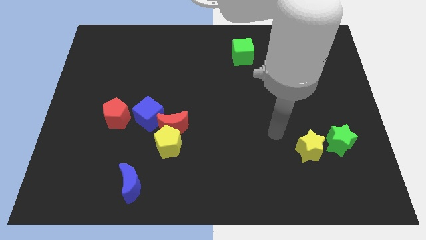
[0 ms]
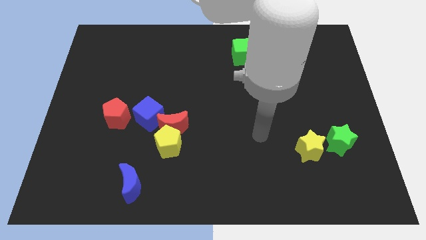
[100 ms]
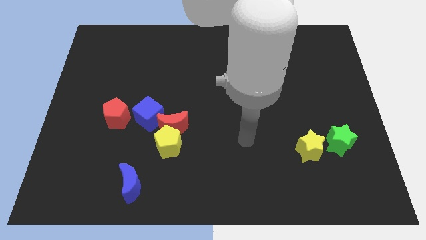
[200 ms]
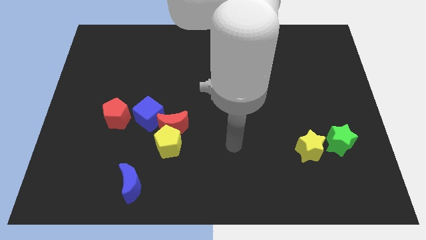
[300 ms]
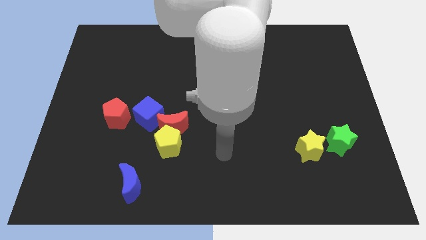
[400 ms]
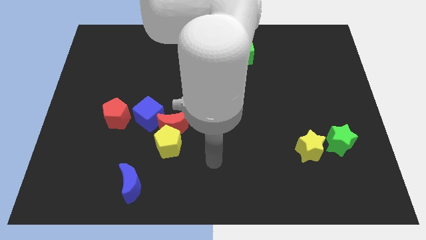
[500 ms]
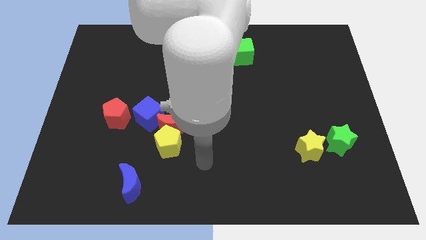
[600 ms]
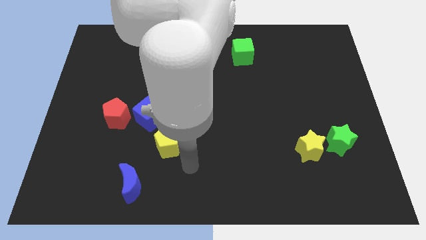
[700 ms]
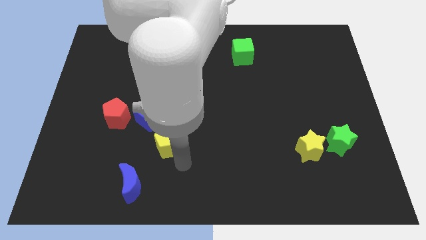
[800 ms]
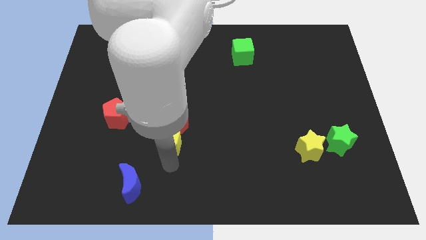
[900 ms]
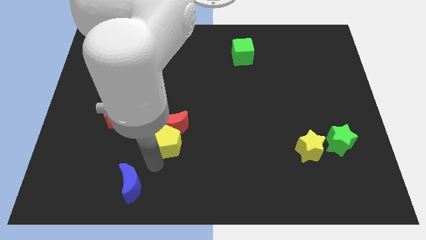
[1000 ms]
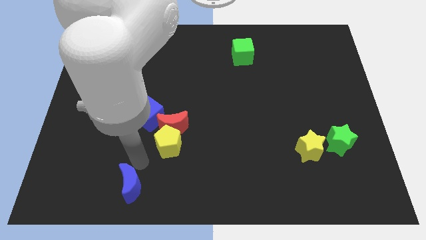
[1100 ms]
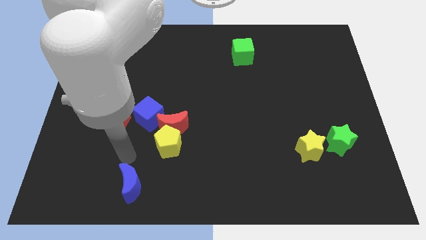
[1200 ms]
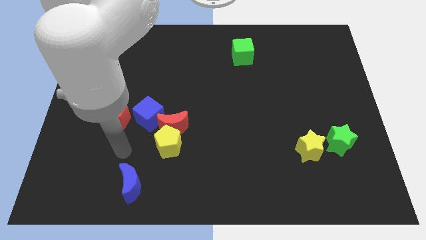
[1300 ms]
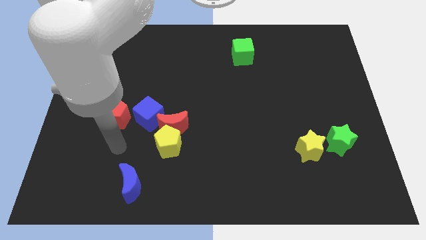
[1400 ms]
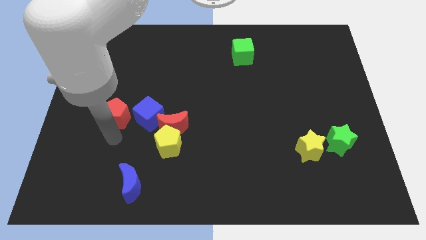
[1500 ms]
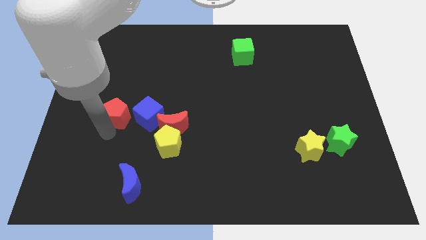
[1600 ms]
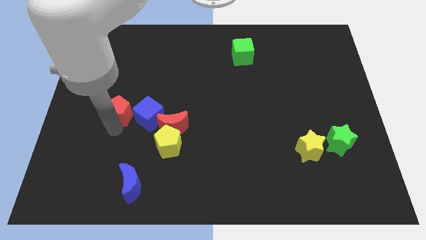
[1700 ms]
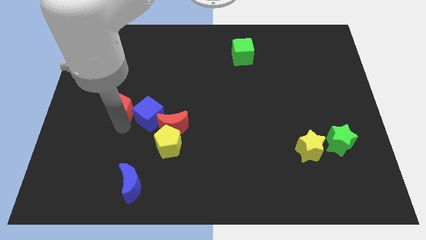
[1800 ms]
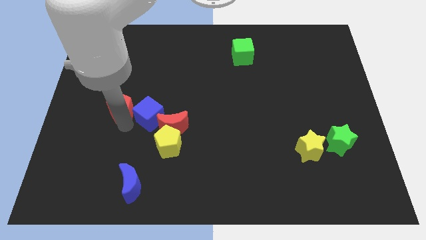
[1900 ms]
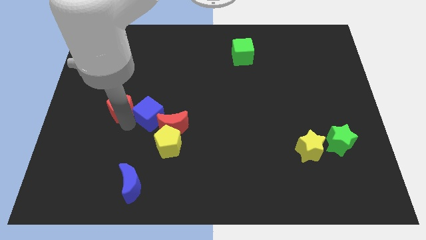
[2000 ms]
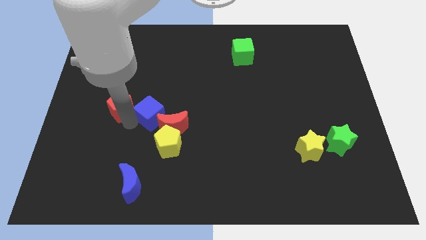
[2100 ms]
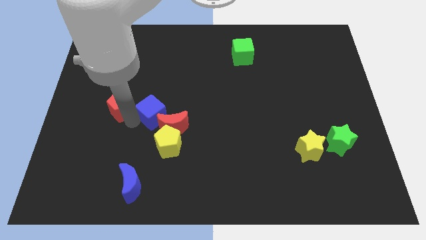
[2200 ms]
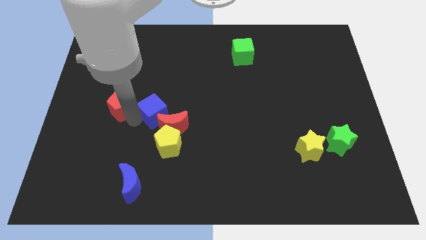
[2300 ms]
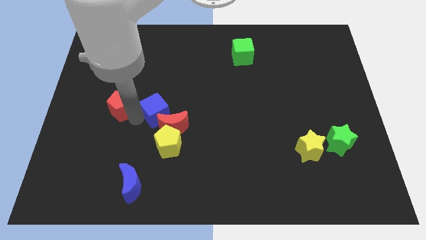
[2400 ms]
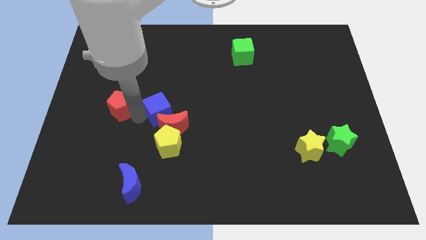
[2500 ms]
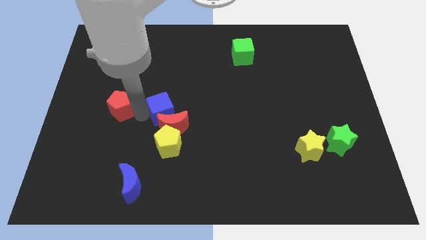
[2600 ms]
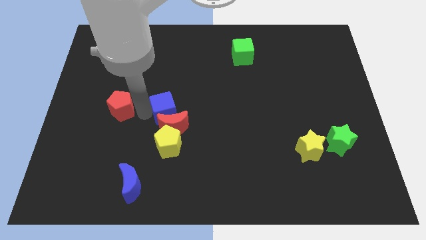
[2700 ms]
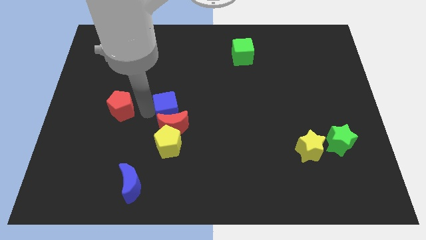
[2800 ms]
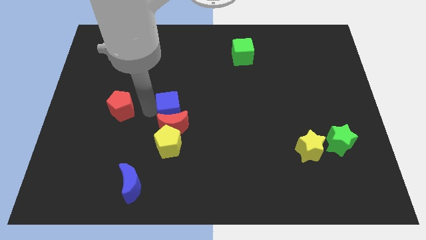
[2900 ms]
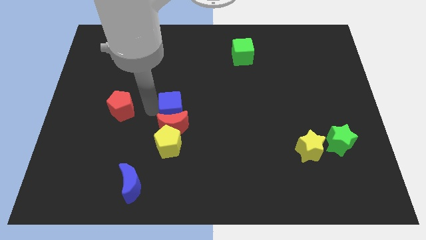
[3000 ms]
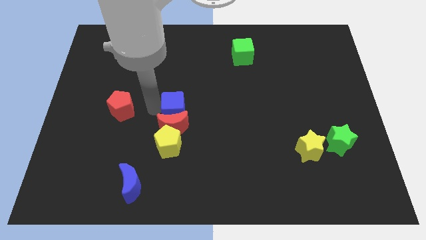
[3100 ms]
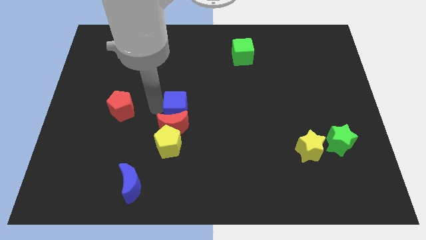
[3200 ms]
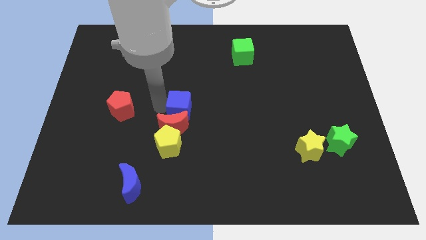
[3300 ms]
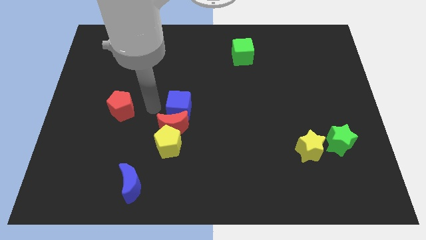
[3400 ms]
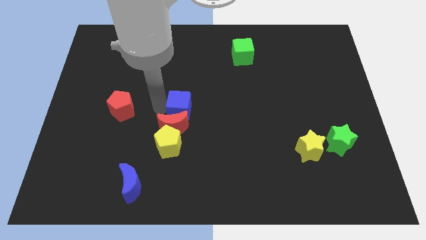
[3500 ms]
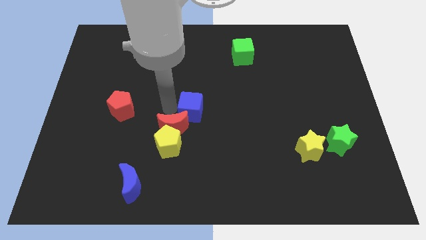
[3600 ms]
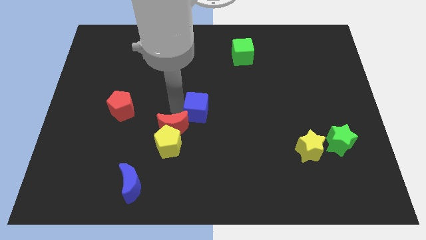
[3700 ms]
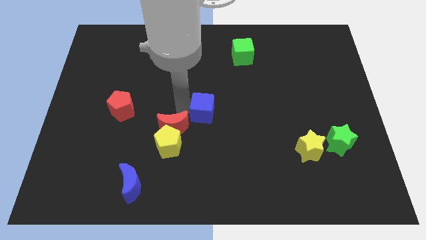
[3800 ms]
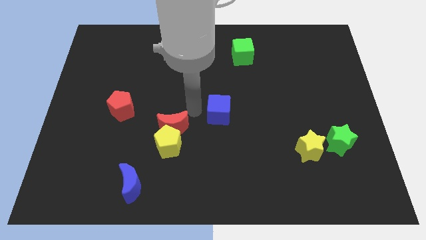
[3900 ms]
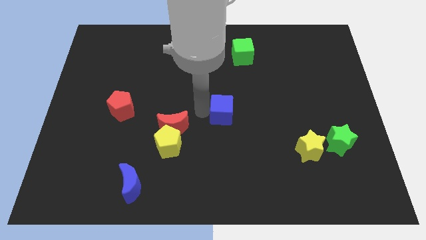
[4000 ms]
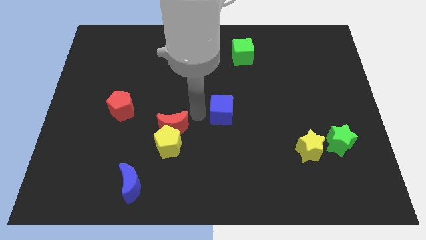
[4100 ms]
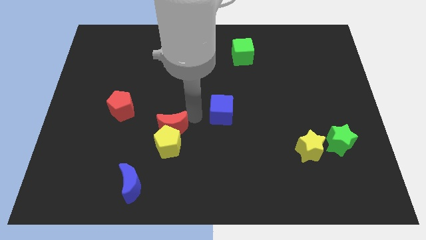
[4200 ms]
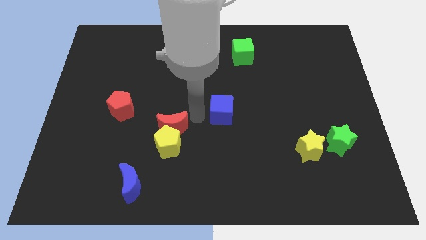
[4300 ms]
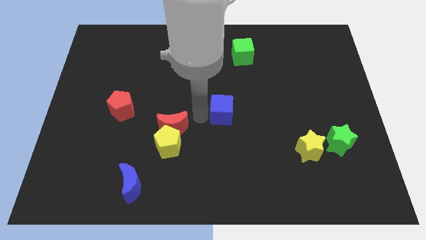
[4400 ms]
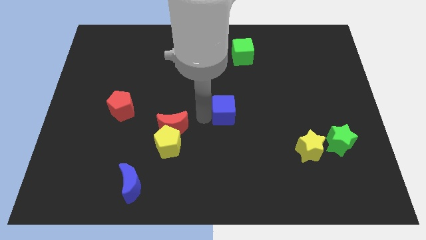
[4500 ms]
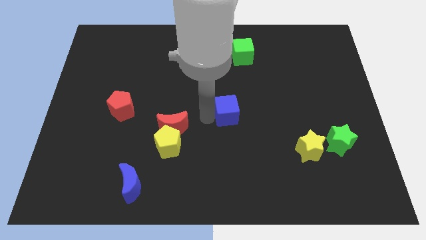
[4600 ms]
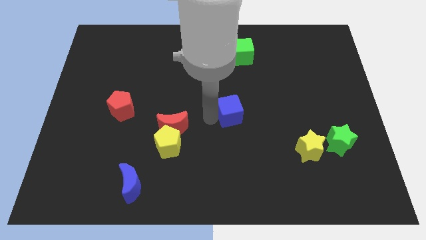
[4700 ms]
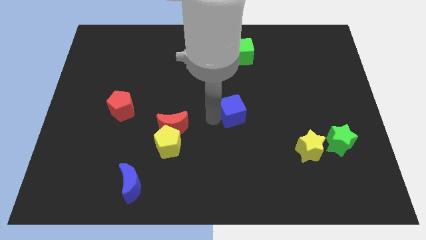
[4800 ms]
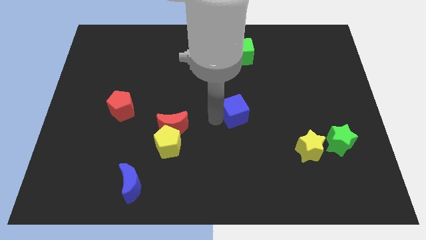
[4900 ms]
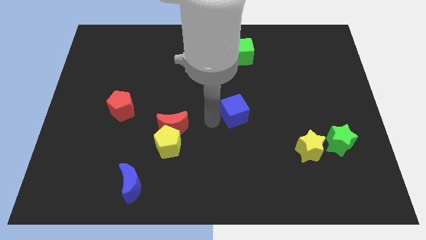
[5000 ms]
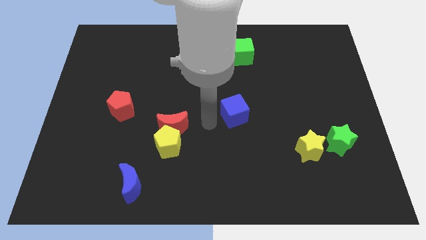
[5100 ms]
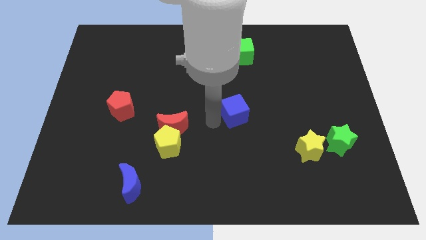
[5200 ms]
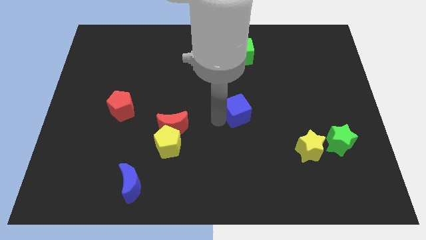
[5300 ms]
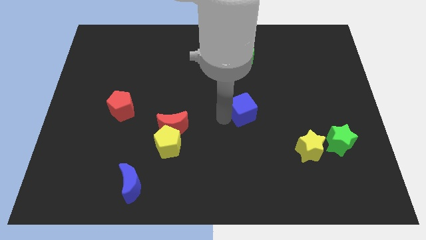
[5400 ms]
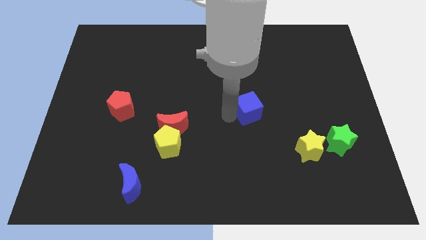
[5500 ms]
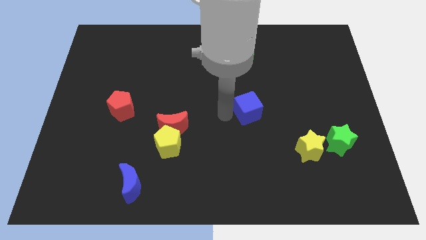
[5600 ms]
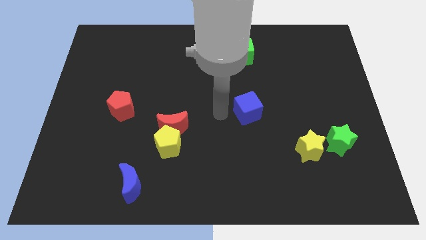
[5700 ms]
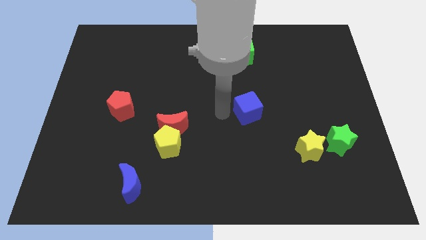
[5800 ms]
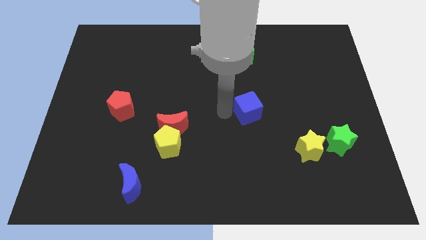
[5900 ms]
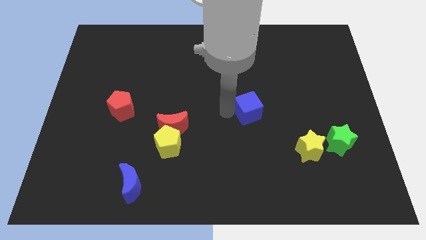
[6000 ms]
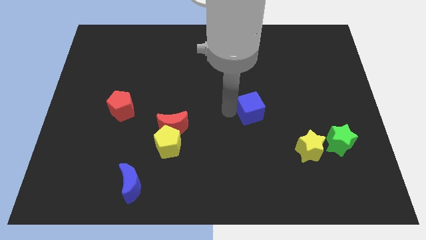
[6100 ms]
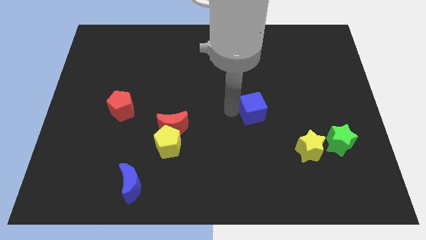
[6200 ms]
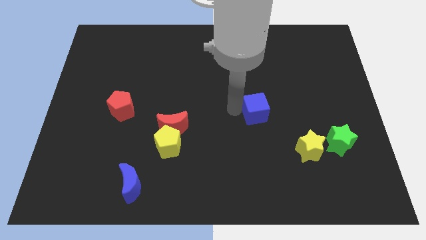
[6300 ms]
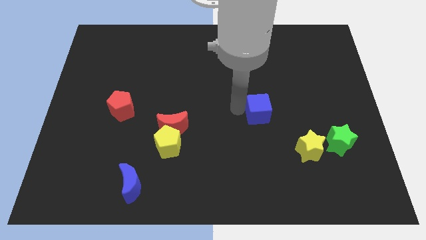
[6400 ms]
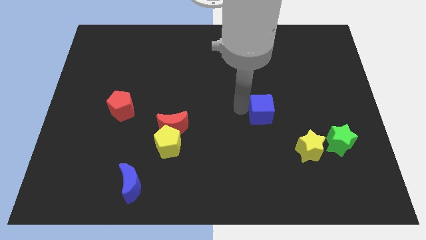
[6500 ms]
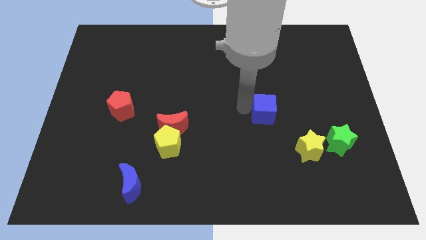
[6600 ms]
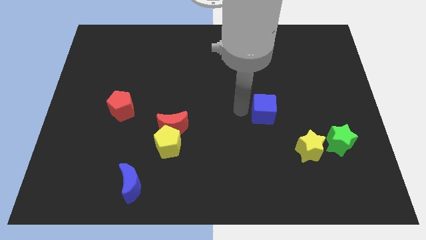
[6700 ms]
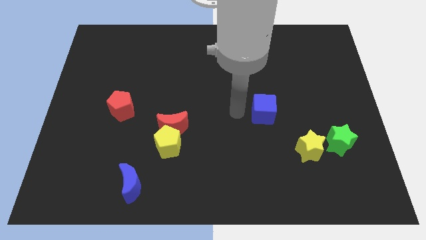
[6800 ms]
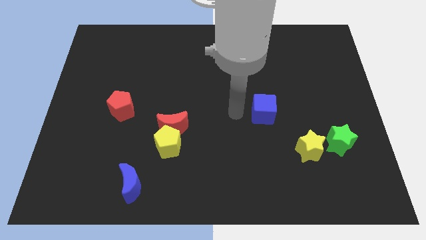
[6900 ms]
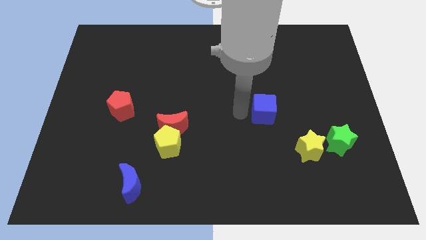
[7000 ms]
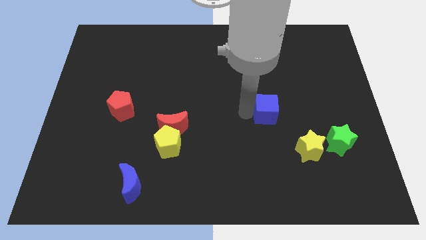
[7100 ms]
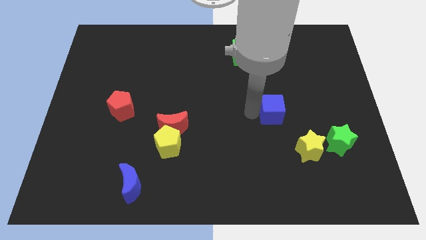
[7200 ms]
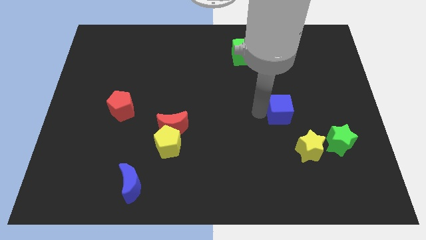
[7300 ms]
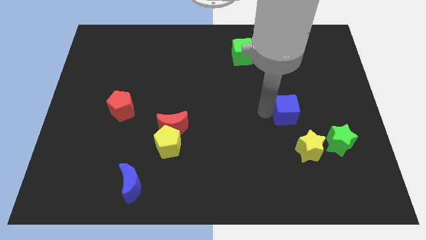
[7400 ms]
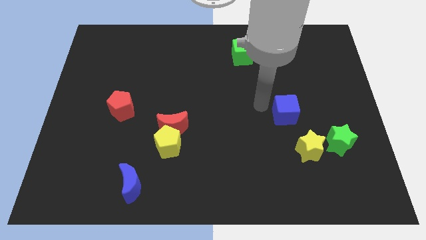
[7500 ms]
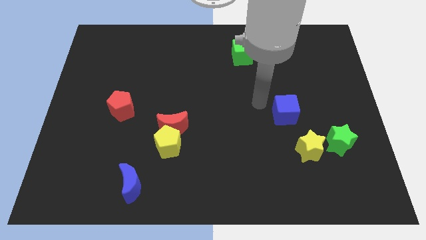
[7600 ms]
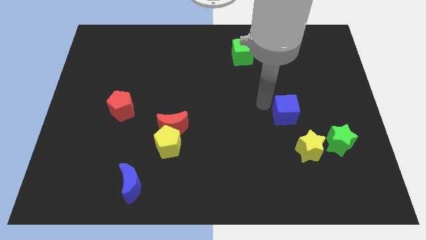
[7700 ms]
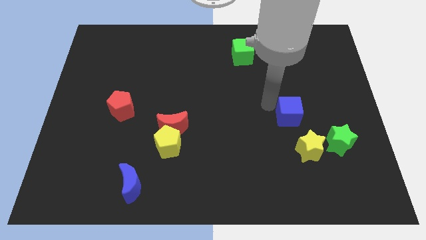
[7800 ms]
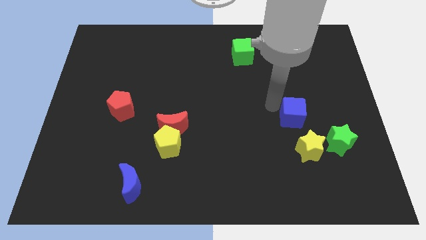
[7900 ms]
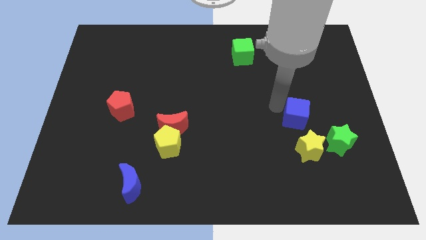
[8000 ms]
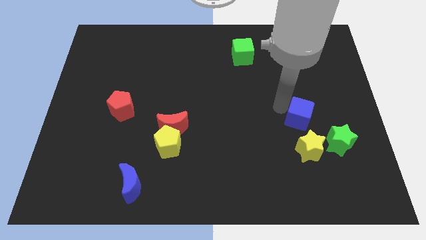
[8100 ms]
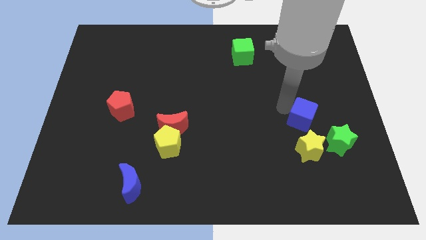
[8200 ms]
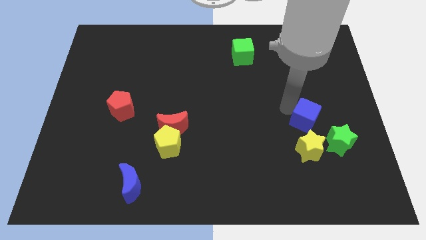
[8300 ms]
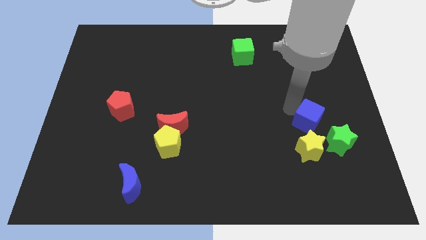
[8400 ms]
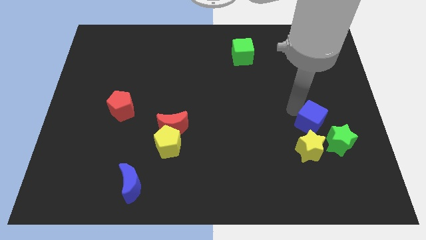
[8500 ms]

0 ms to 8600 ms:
move the blue cube to the top right of the yellow star
